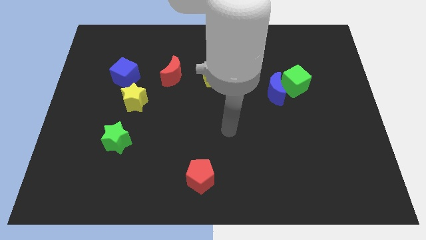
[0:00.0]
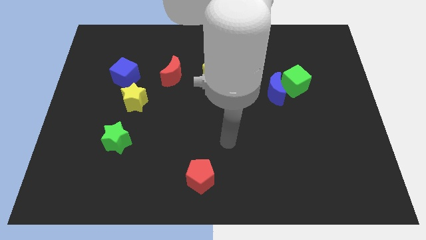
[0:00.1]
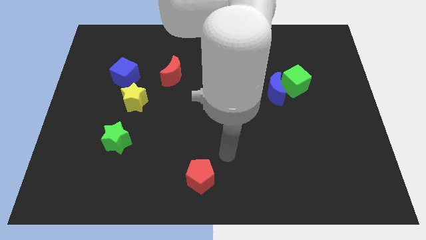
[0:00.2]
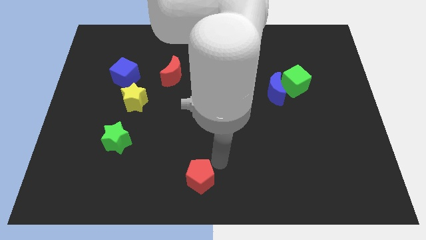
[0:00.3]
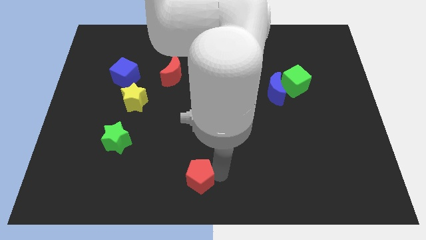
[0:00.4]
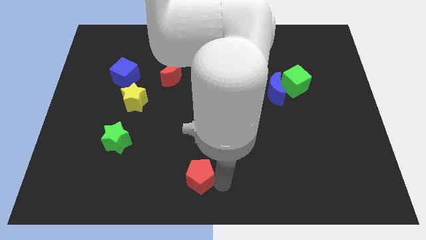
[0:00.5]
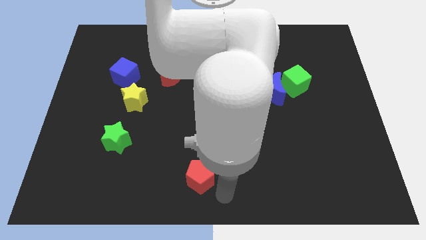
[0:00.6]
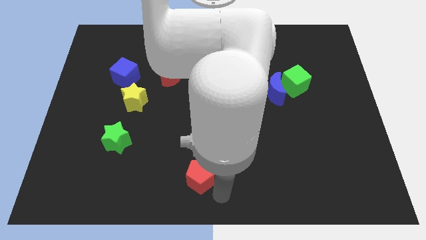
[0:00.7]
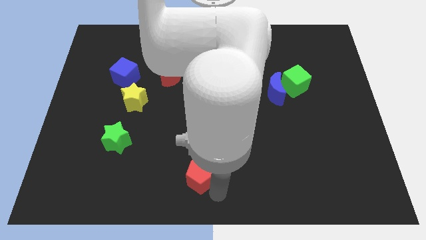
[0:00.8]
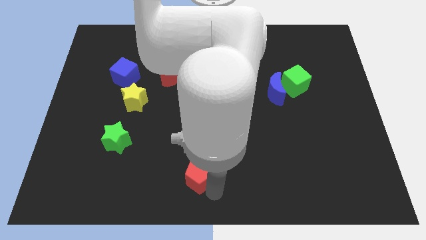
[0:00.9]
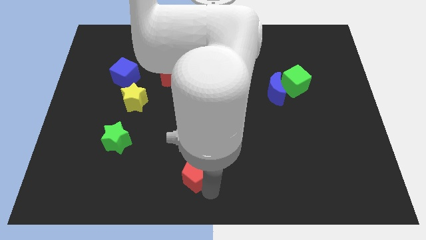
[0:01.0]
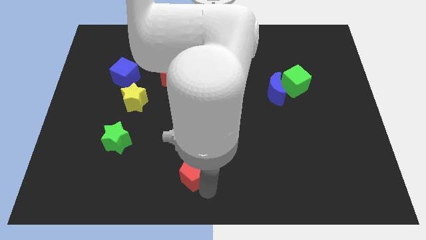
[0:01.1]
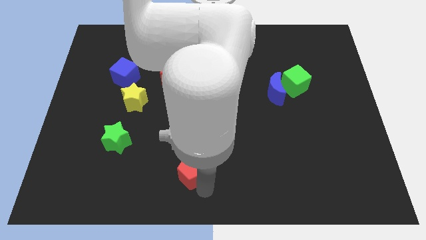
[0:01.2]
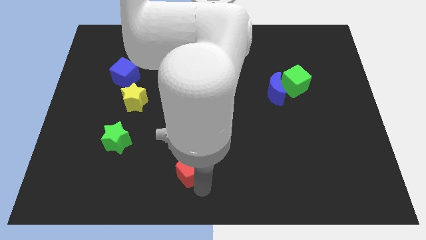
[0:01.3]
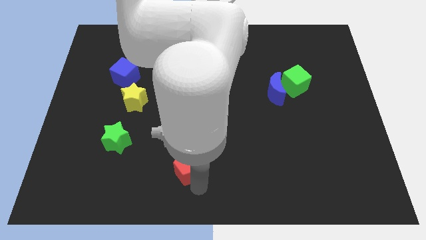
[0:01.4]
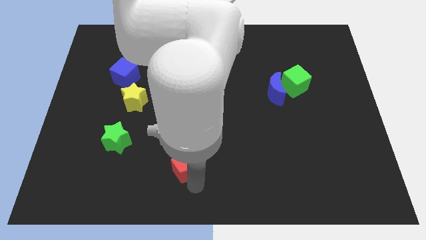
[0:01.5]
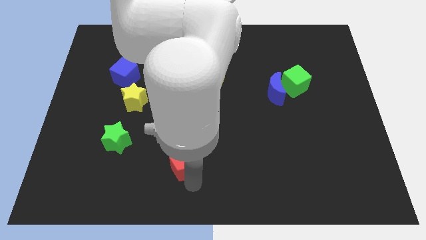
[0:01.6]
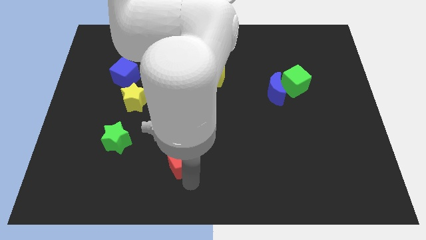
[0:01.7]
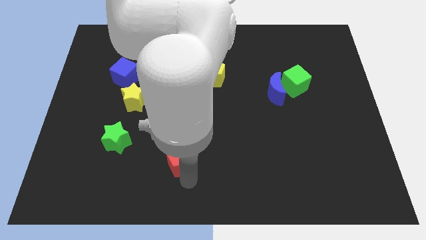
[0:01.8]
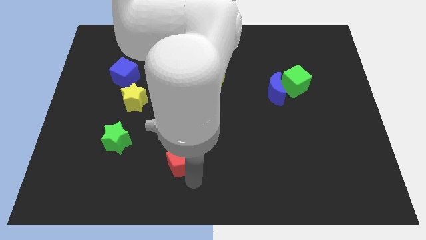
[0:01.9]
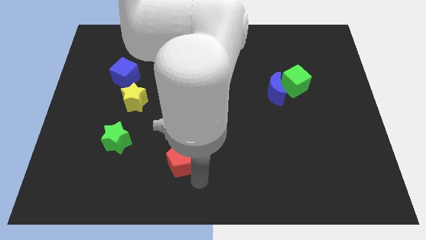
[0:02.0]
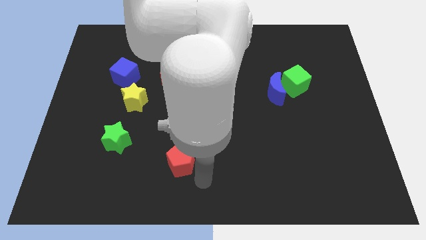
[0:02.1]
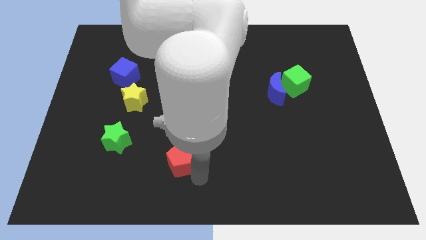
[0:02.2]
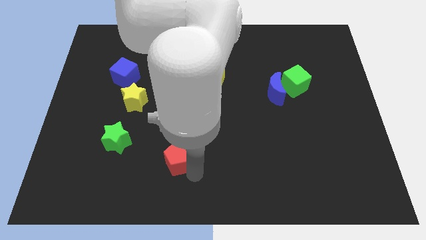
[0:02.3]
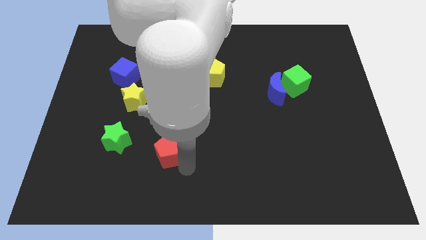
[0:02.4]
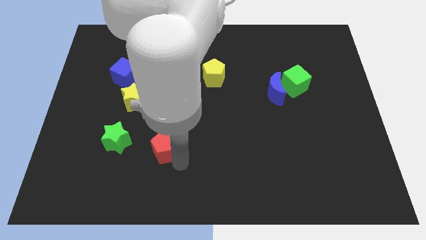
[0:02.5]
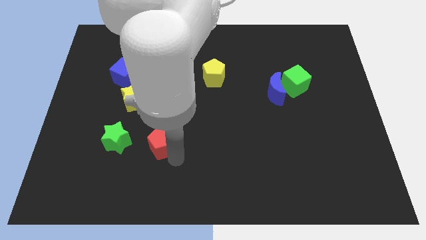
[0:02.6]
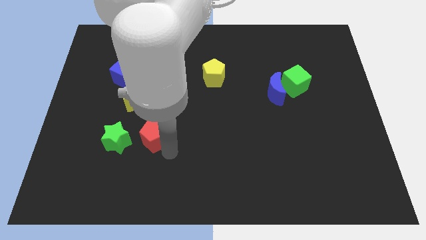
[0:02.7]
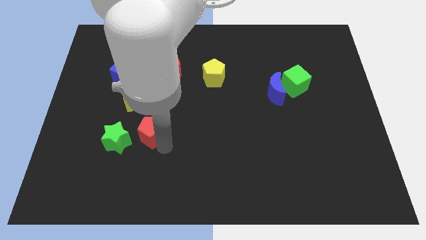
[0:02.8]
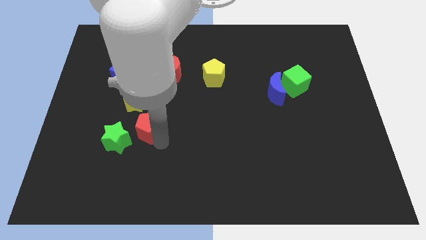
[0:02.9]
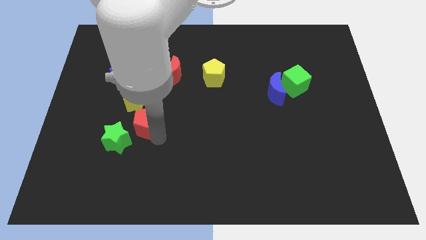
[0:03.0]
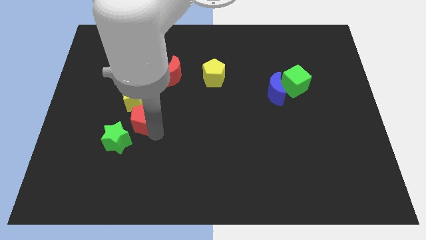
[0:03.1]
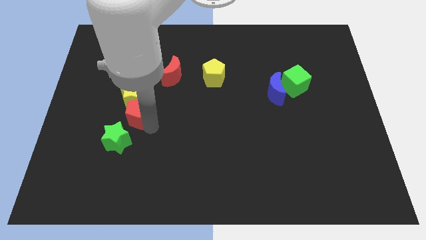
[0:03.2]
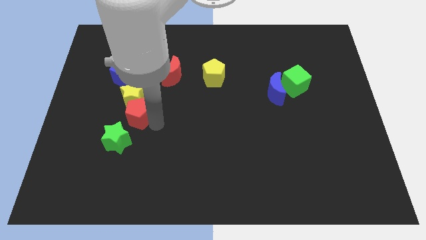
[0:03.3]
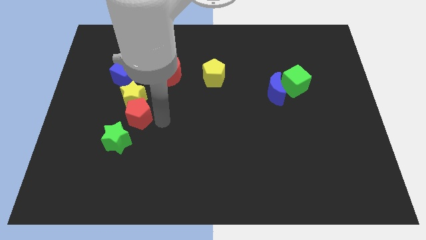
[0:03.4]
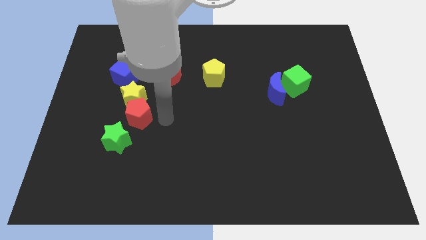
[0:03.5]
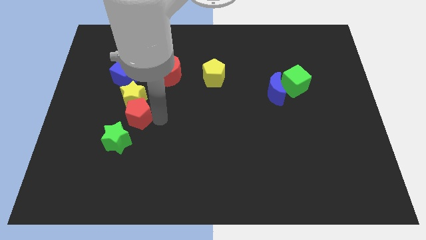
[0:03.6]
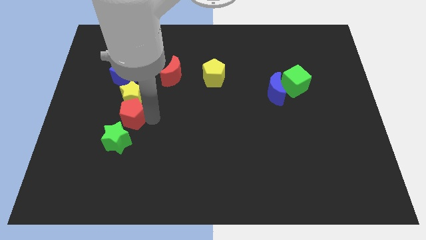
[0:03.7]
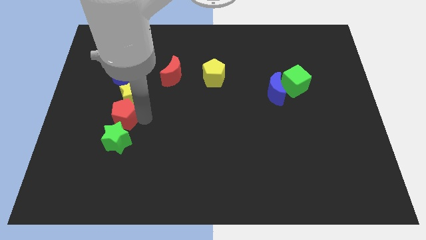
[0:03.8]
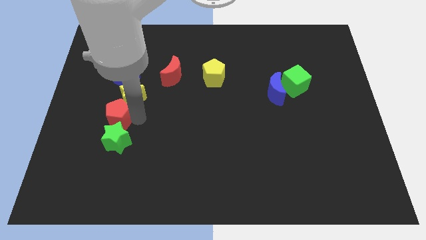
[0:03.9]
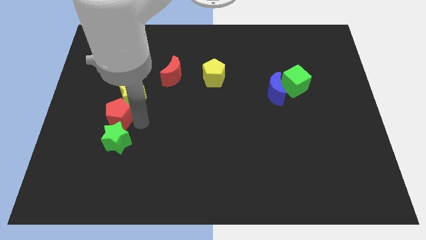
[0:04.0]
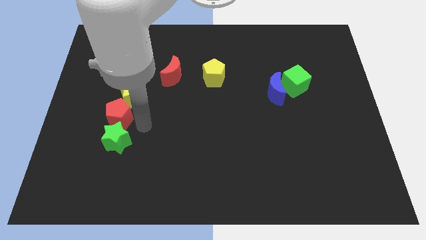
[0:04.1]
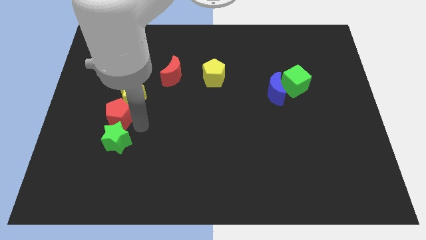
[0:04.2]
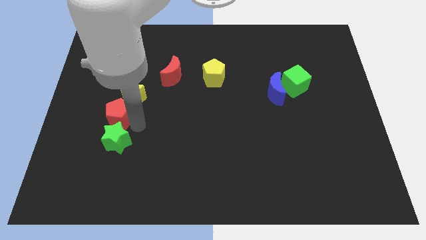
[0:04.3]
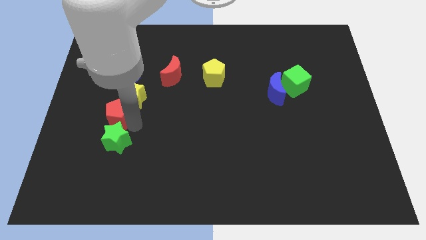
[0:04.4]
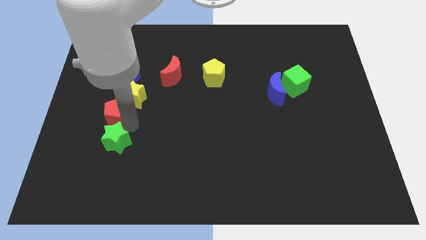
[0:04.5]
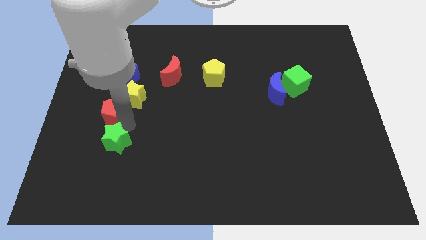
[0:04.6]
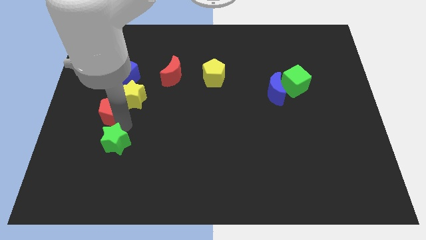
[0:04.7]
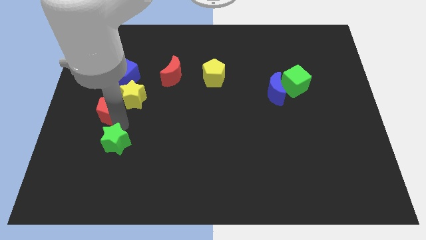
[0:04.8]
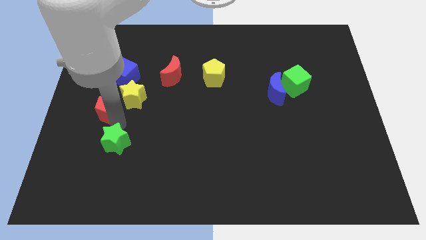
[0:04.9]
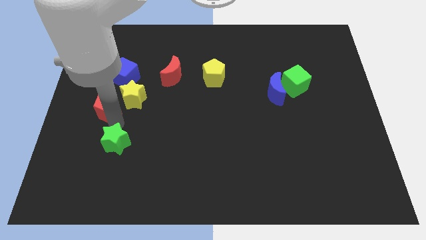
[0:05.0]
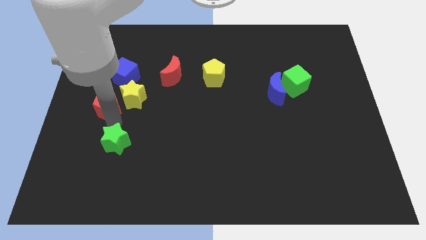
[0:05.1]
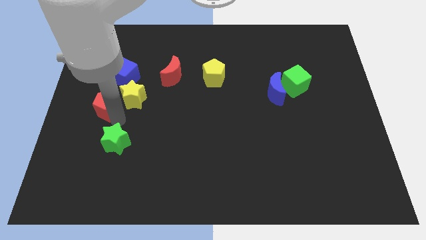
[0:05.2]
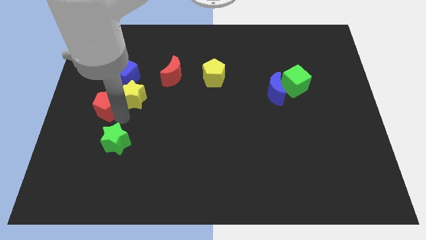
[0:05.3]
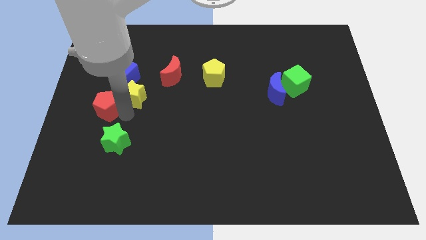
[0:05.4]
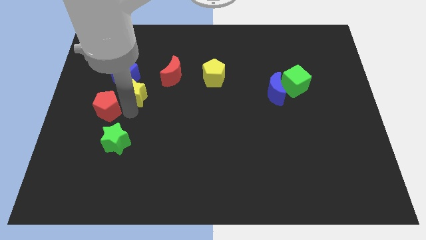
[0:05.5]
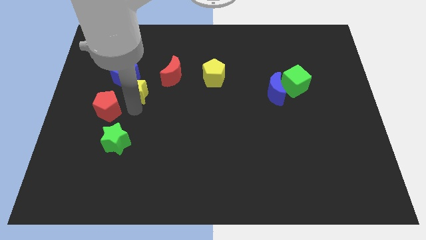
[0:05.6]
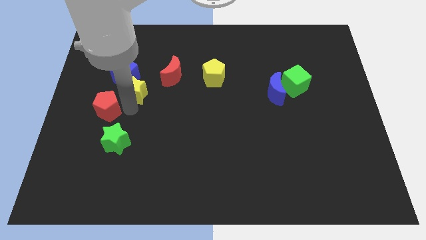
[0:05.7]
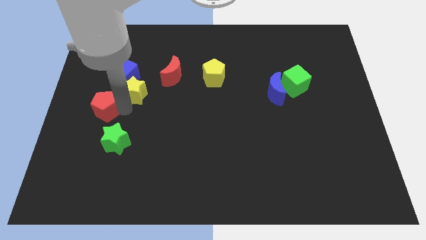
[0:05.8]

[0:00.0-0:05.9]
move the red pentagon to the center left
